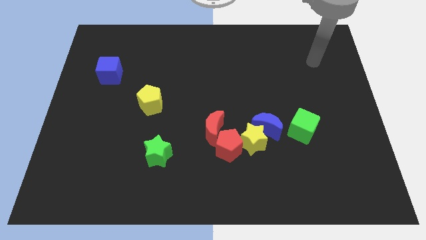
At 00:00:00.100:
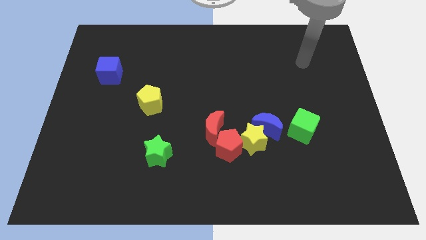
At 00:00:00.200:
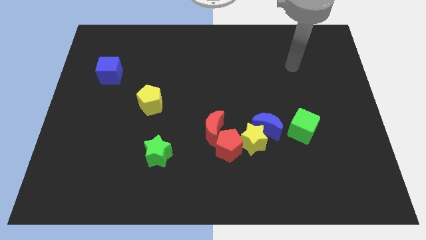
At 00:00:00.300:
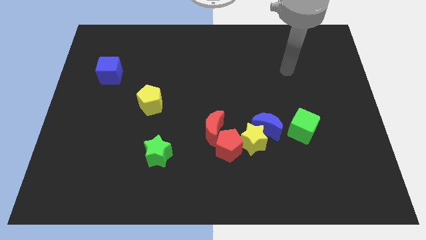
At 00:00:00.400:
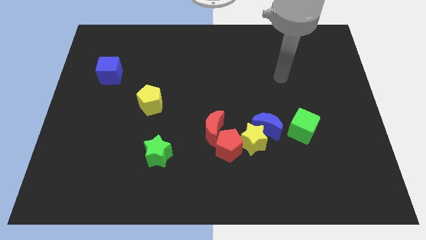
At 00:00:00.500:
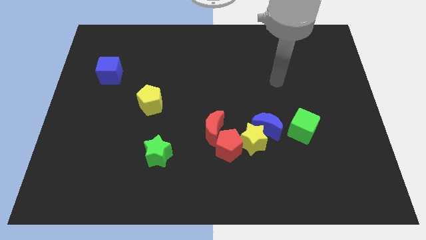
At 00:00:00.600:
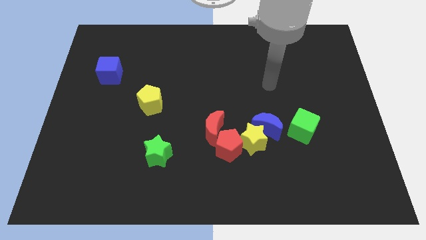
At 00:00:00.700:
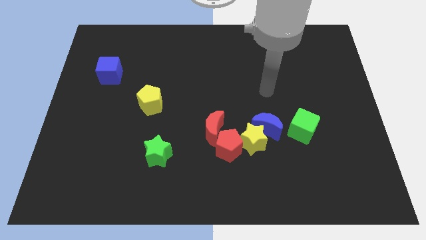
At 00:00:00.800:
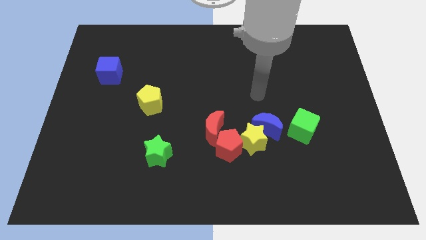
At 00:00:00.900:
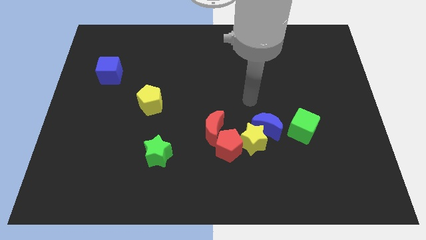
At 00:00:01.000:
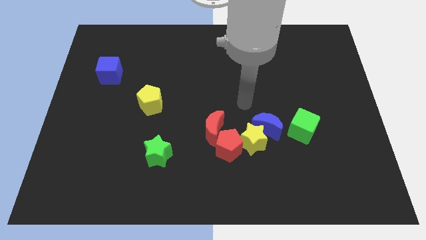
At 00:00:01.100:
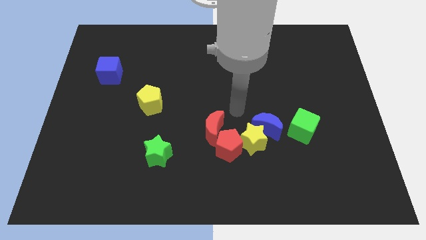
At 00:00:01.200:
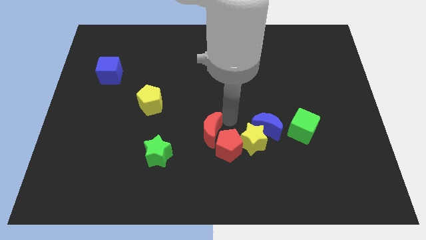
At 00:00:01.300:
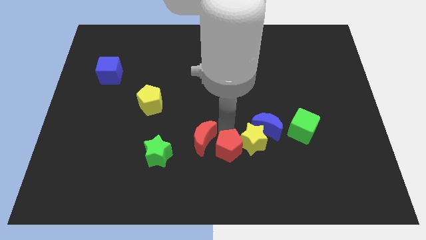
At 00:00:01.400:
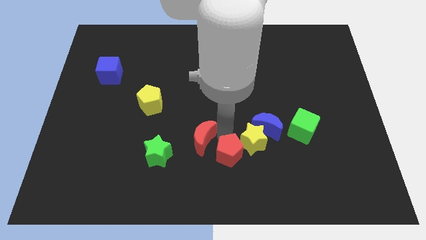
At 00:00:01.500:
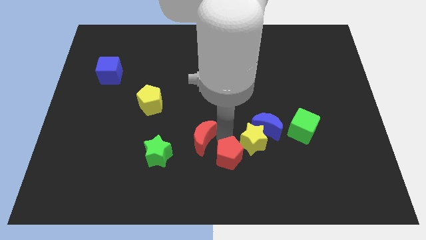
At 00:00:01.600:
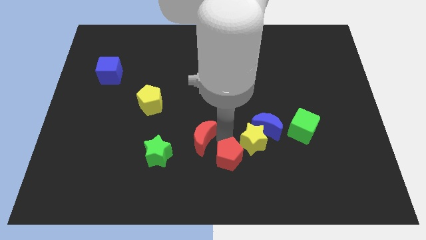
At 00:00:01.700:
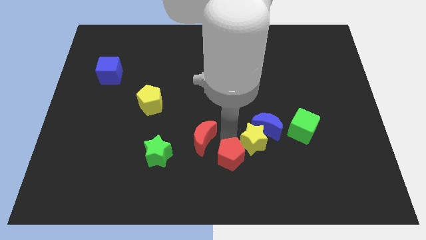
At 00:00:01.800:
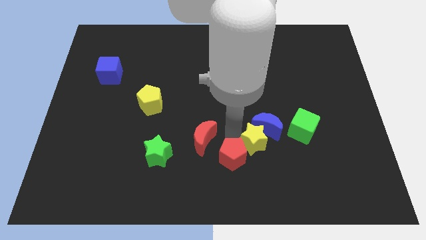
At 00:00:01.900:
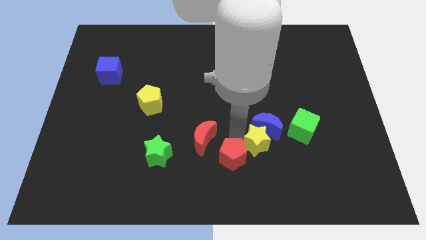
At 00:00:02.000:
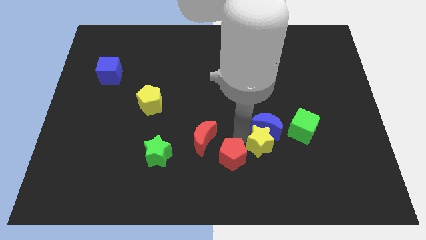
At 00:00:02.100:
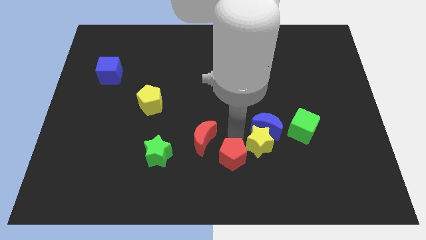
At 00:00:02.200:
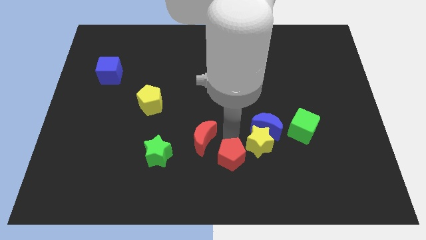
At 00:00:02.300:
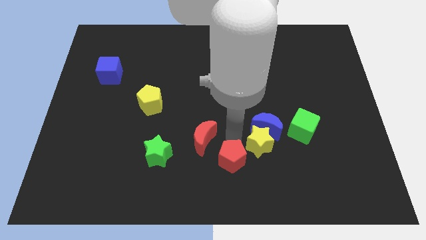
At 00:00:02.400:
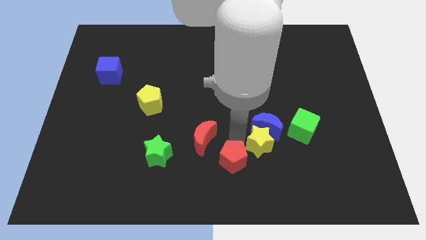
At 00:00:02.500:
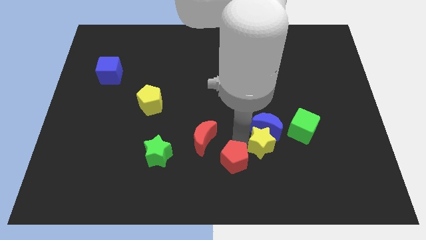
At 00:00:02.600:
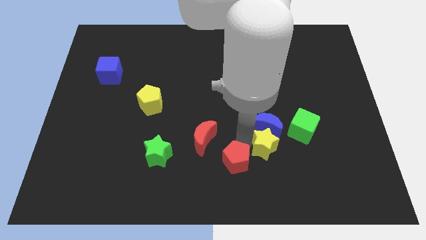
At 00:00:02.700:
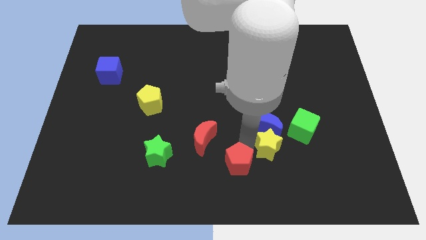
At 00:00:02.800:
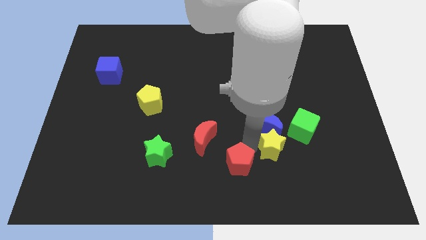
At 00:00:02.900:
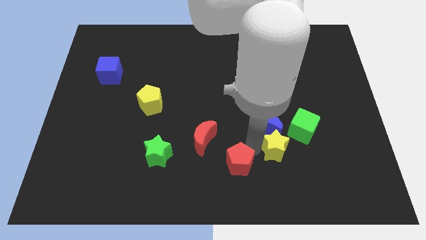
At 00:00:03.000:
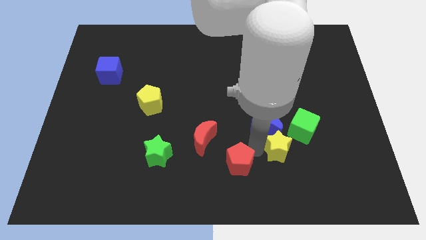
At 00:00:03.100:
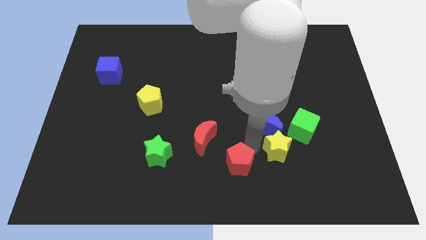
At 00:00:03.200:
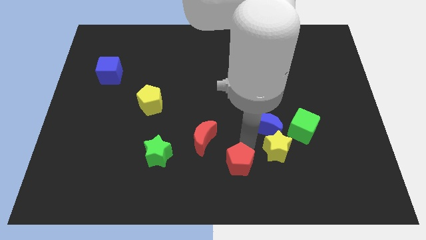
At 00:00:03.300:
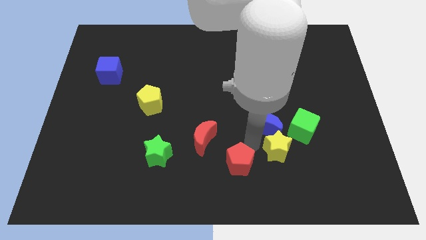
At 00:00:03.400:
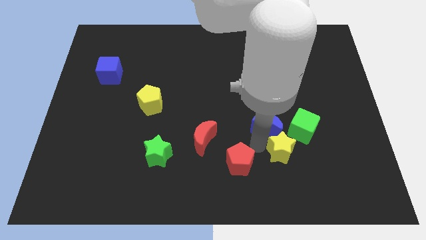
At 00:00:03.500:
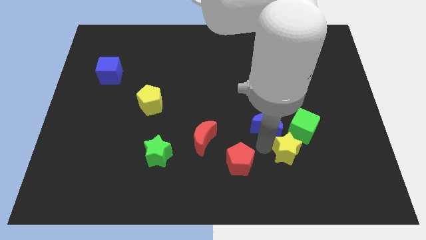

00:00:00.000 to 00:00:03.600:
separate the yellow star from the blue moon, red pentagon, and red moon

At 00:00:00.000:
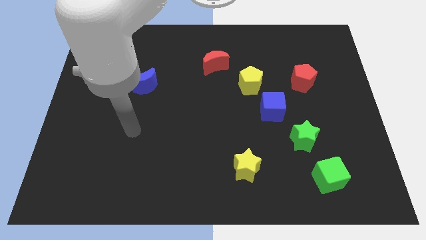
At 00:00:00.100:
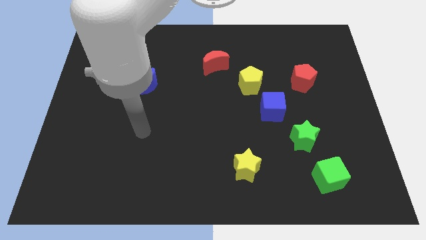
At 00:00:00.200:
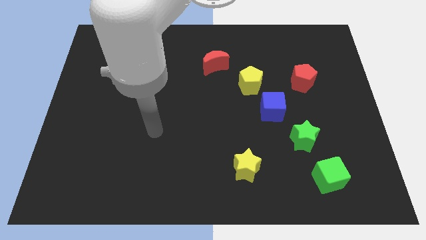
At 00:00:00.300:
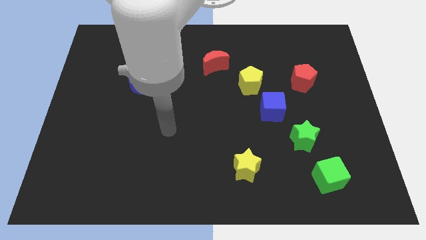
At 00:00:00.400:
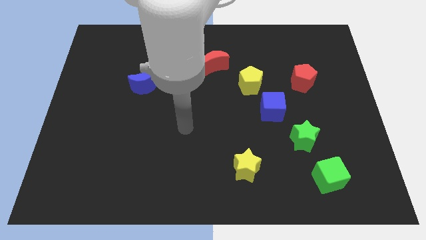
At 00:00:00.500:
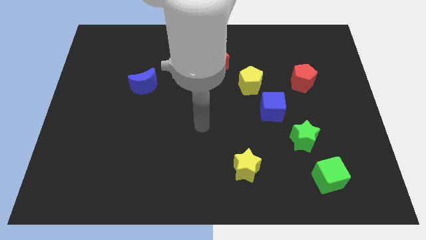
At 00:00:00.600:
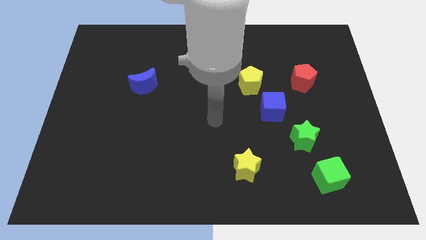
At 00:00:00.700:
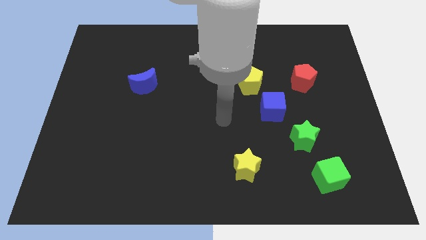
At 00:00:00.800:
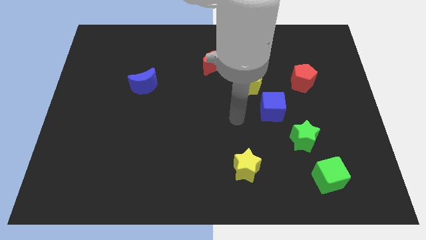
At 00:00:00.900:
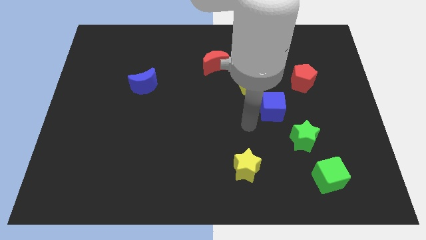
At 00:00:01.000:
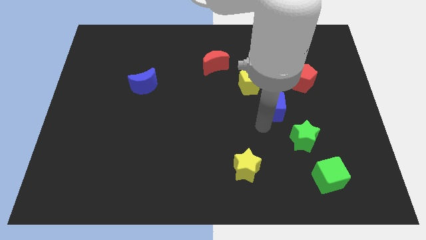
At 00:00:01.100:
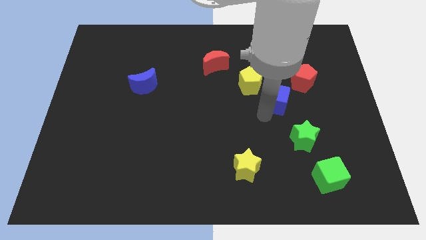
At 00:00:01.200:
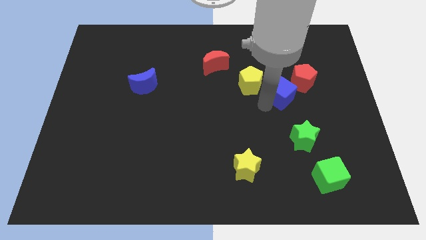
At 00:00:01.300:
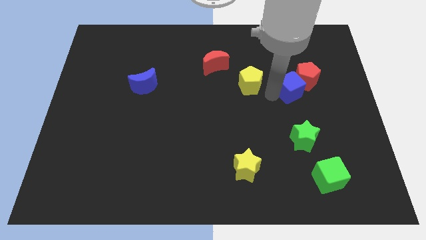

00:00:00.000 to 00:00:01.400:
pull the yellow pentagon apart from the blue cube

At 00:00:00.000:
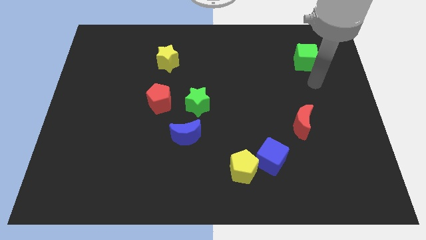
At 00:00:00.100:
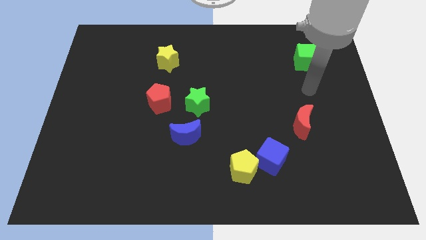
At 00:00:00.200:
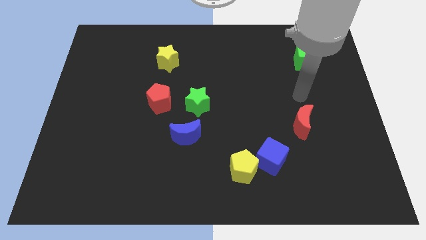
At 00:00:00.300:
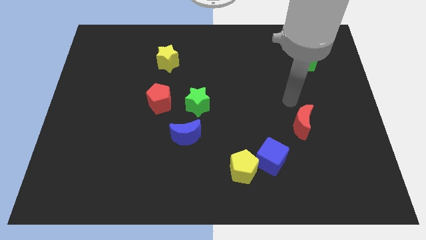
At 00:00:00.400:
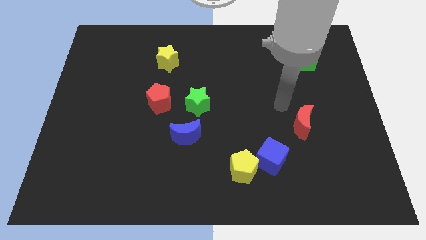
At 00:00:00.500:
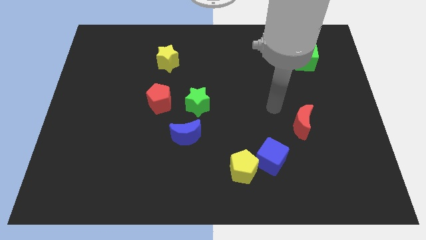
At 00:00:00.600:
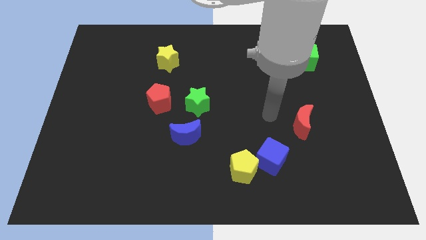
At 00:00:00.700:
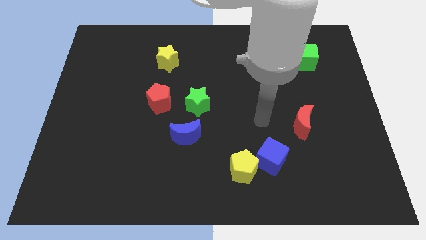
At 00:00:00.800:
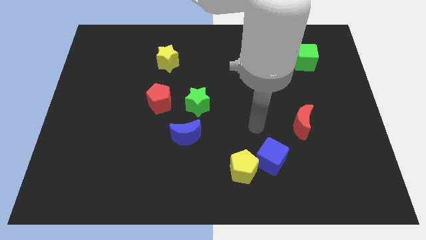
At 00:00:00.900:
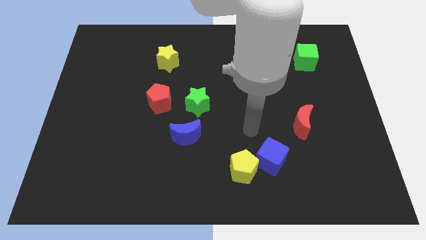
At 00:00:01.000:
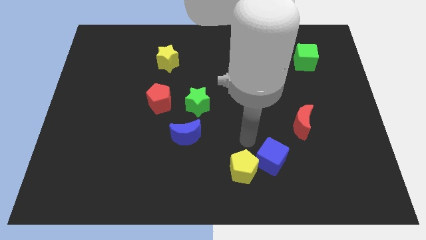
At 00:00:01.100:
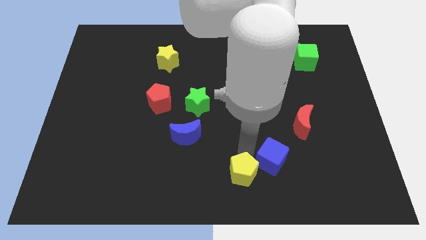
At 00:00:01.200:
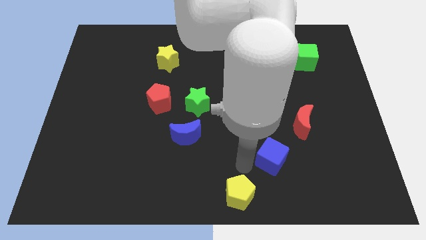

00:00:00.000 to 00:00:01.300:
pull the blue cube apart from the yellow pentagon

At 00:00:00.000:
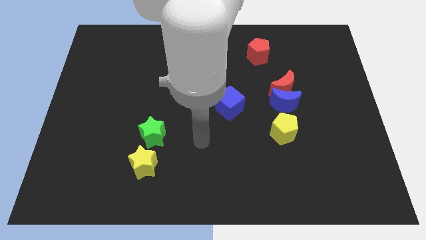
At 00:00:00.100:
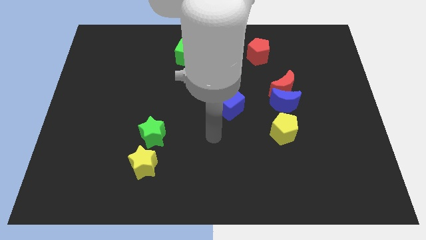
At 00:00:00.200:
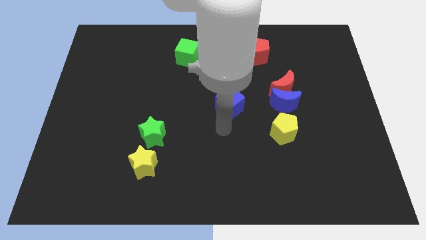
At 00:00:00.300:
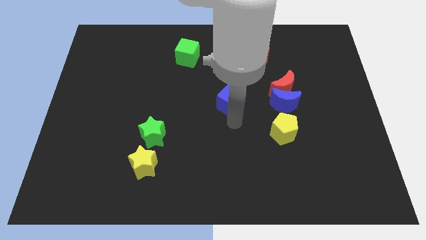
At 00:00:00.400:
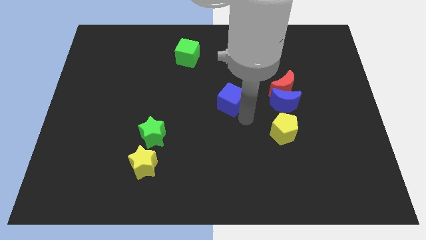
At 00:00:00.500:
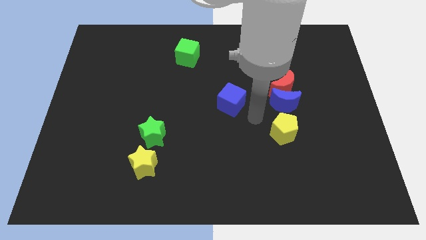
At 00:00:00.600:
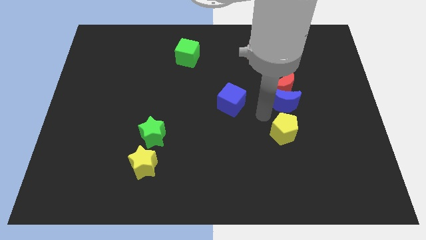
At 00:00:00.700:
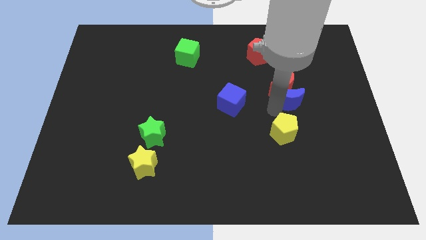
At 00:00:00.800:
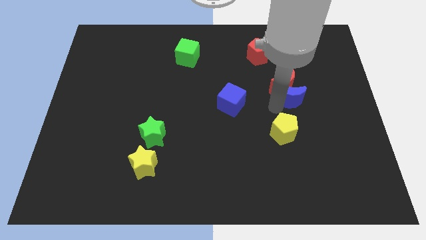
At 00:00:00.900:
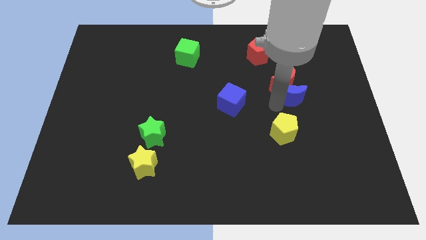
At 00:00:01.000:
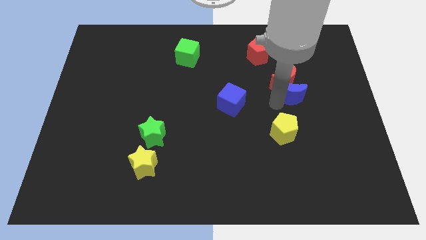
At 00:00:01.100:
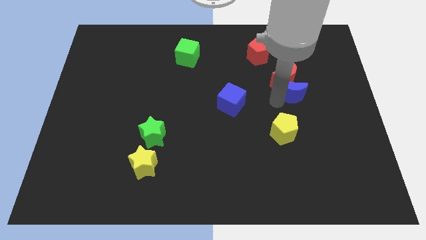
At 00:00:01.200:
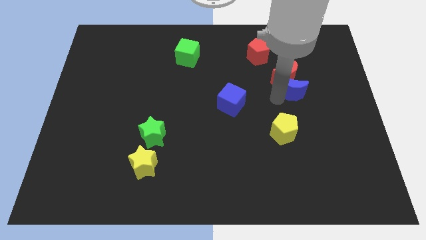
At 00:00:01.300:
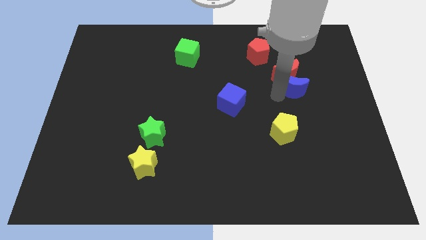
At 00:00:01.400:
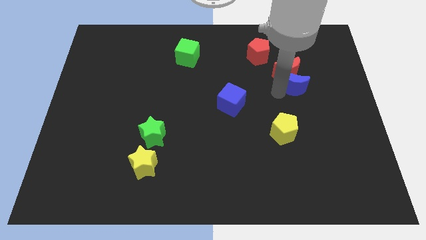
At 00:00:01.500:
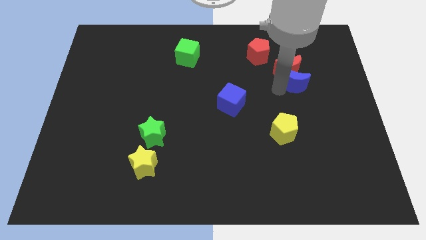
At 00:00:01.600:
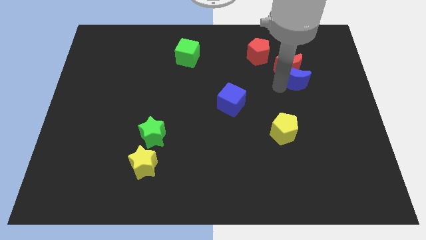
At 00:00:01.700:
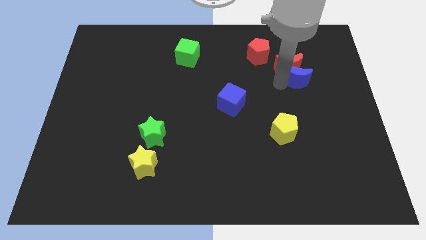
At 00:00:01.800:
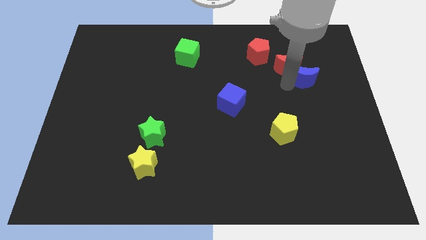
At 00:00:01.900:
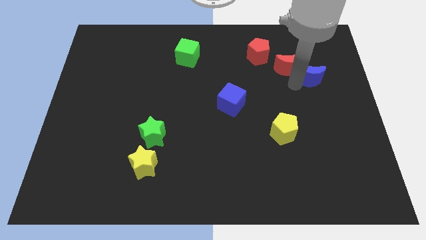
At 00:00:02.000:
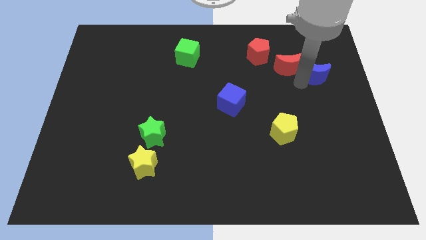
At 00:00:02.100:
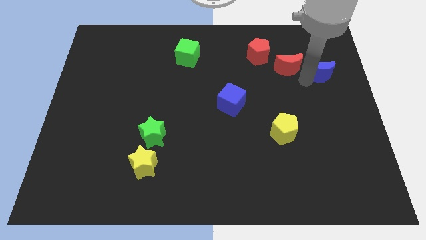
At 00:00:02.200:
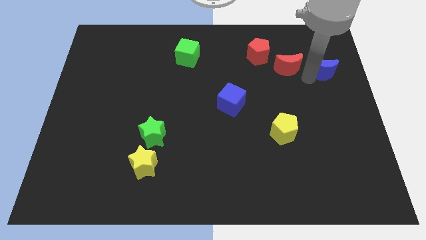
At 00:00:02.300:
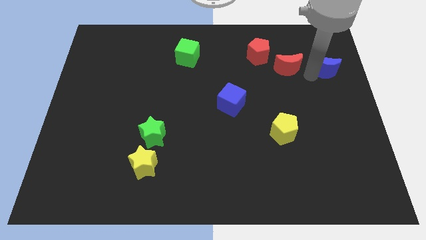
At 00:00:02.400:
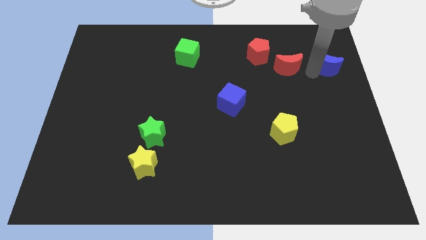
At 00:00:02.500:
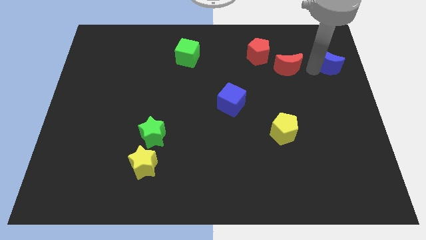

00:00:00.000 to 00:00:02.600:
separate the red moon from the blue moon

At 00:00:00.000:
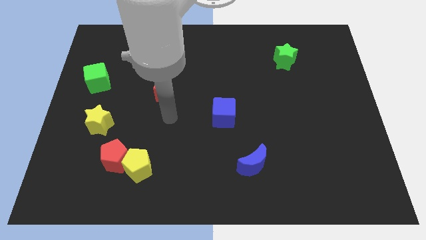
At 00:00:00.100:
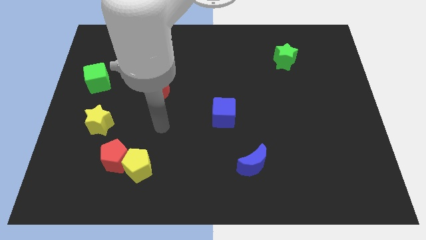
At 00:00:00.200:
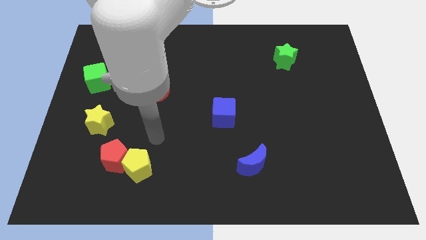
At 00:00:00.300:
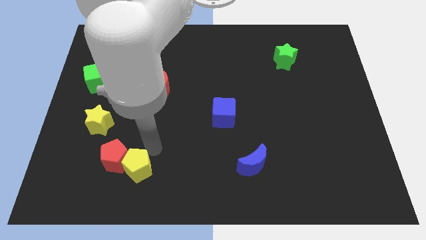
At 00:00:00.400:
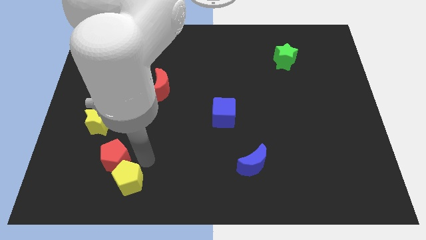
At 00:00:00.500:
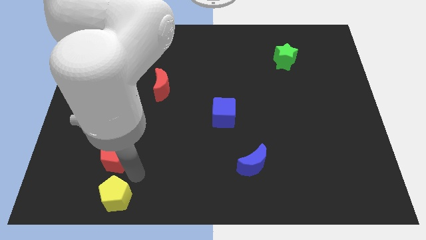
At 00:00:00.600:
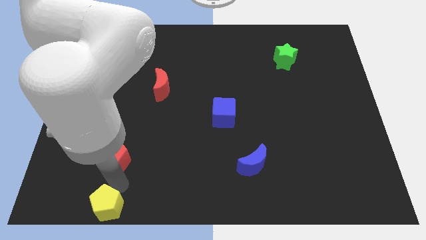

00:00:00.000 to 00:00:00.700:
pull the red pentagon apart from the yellow pentagon
